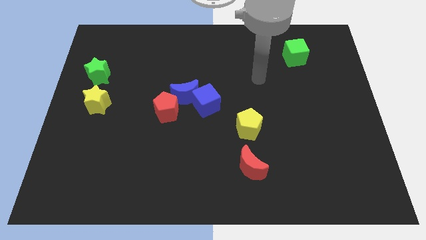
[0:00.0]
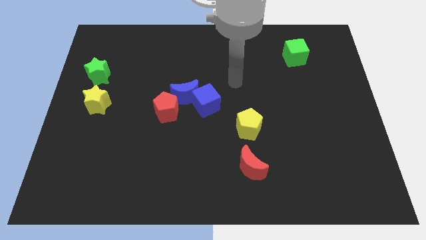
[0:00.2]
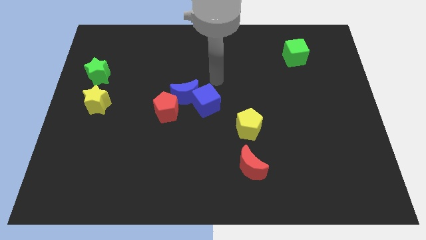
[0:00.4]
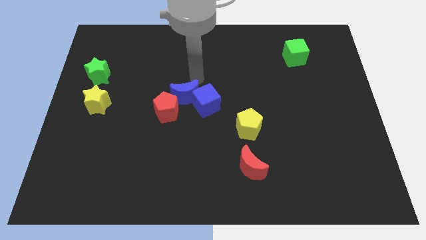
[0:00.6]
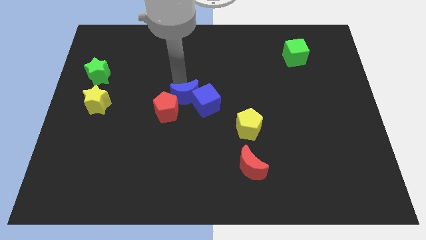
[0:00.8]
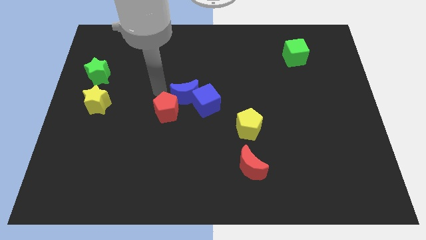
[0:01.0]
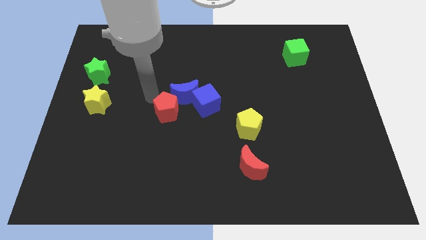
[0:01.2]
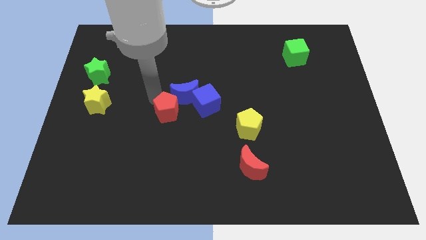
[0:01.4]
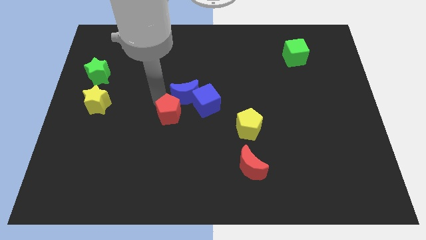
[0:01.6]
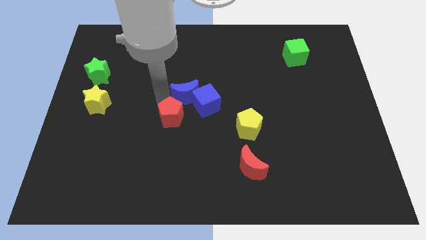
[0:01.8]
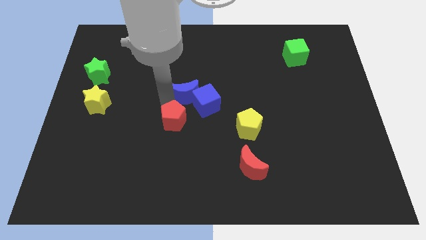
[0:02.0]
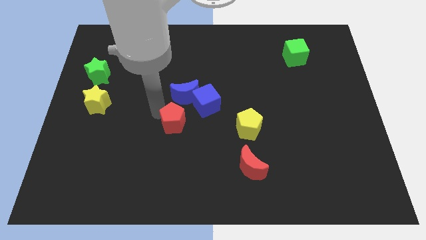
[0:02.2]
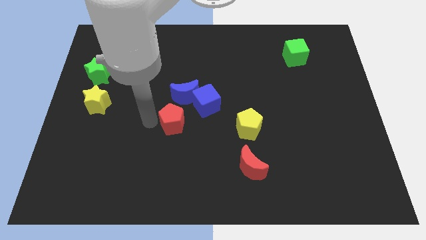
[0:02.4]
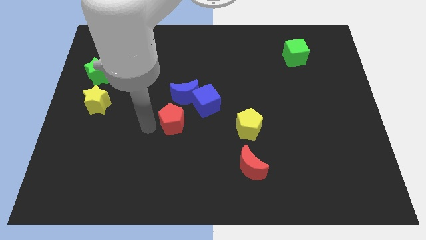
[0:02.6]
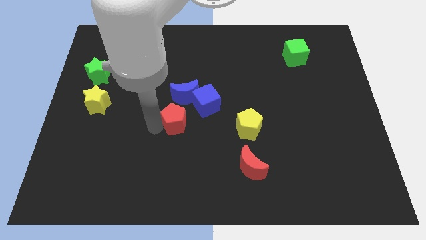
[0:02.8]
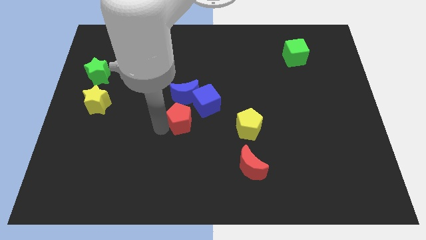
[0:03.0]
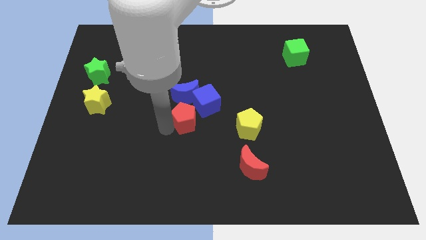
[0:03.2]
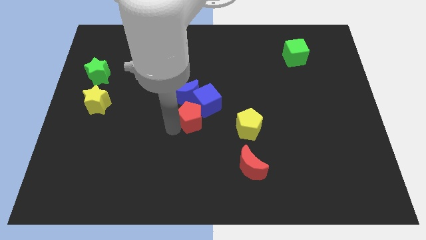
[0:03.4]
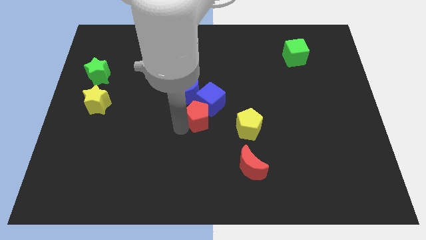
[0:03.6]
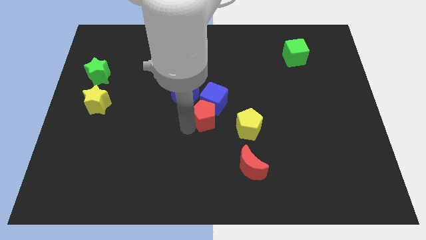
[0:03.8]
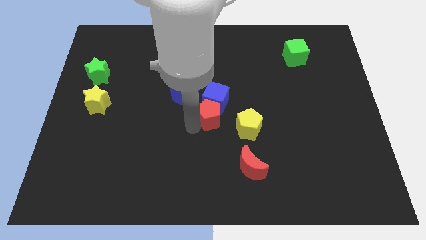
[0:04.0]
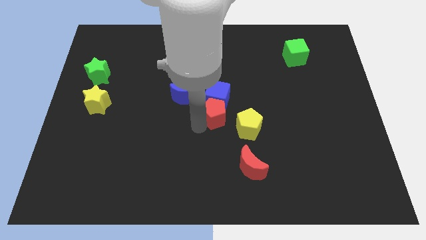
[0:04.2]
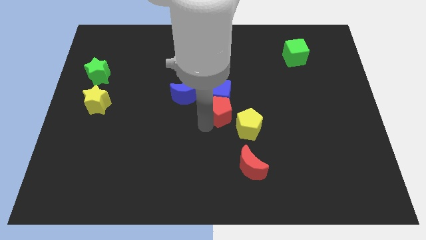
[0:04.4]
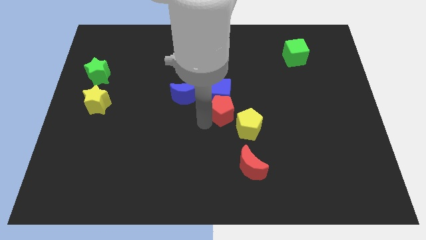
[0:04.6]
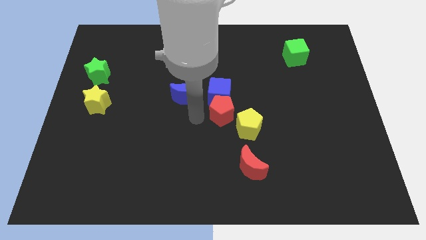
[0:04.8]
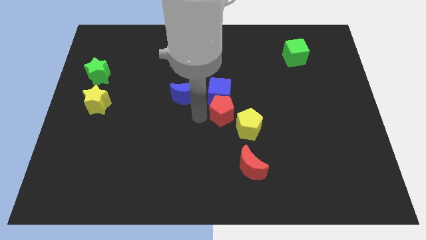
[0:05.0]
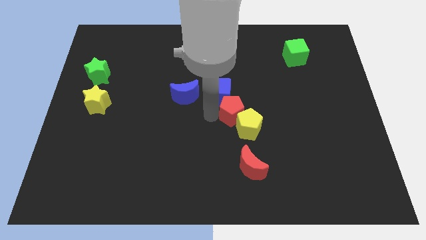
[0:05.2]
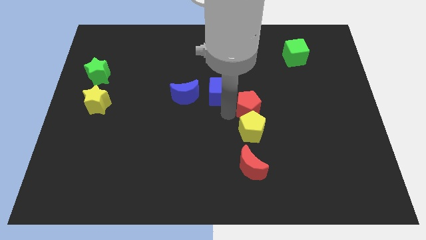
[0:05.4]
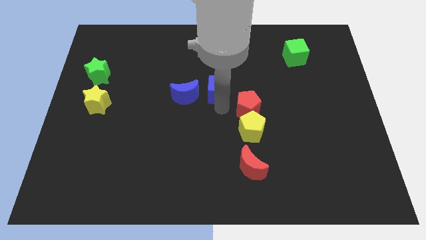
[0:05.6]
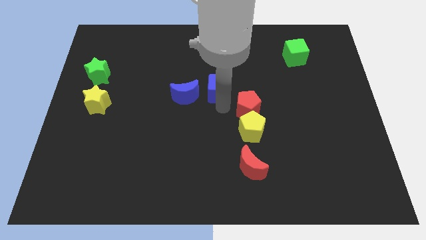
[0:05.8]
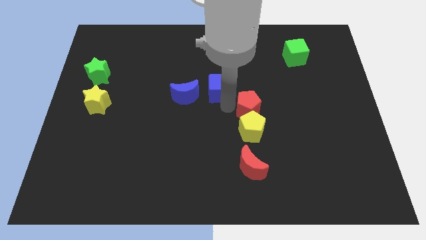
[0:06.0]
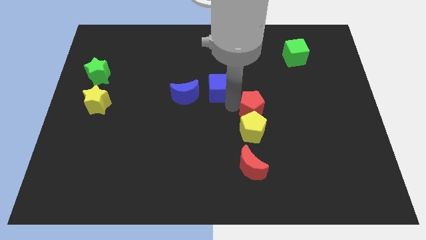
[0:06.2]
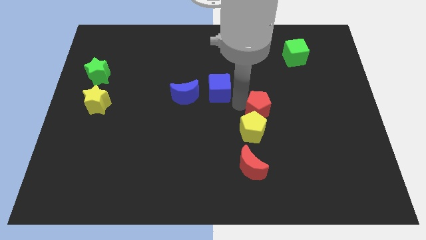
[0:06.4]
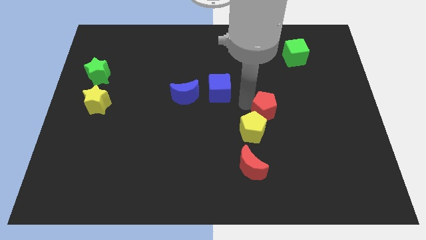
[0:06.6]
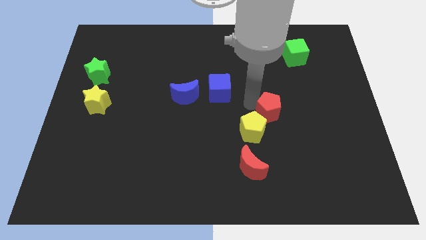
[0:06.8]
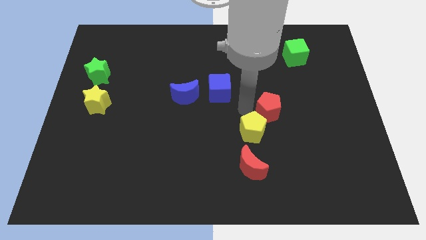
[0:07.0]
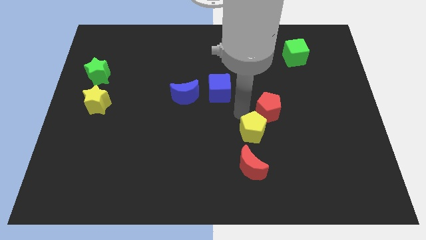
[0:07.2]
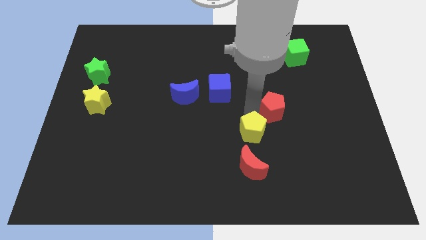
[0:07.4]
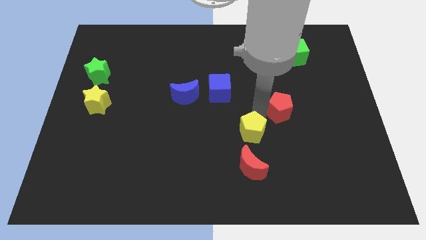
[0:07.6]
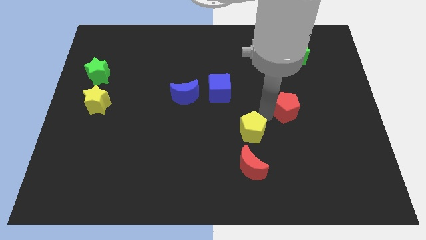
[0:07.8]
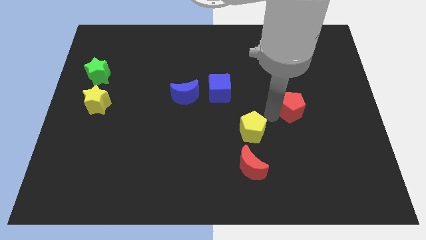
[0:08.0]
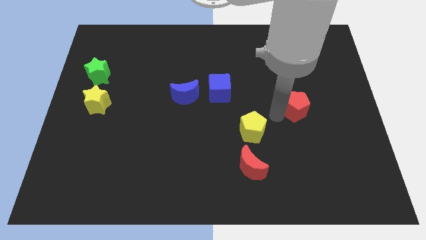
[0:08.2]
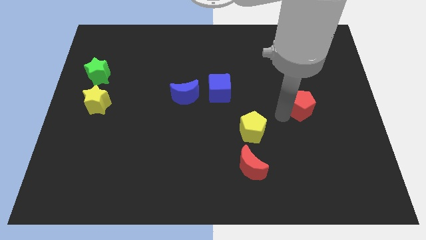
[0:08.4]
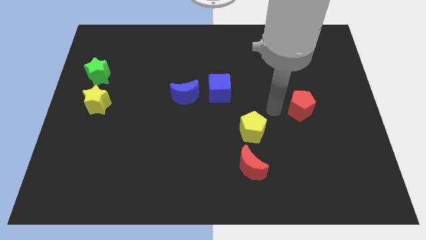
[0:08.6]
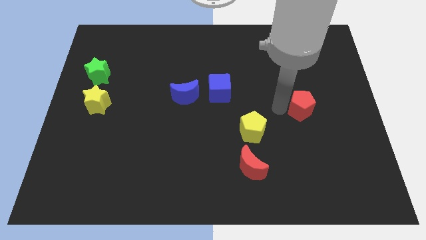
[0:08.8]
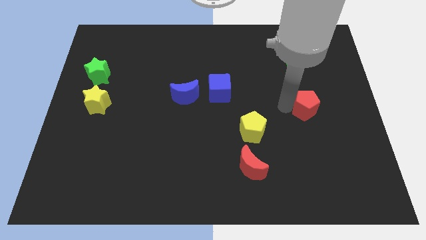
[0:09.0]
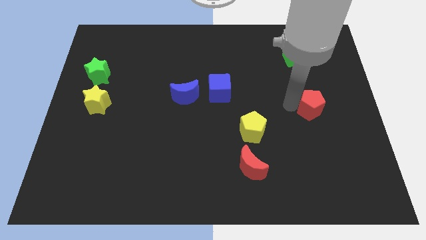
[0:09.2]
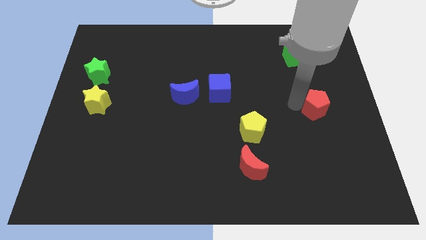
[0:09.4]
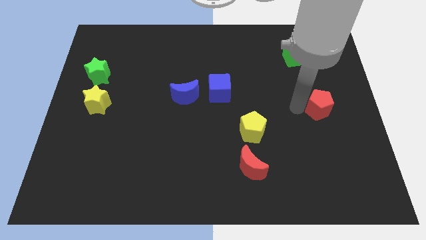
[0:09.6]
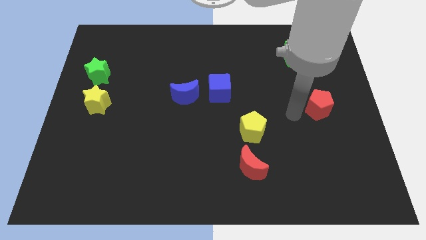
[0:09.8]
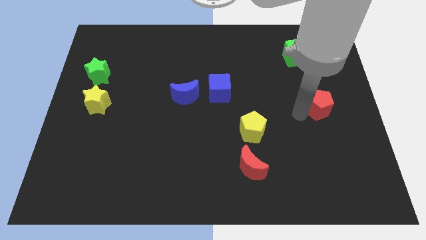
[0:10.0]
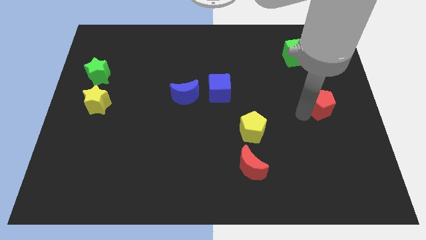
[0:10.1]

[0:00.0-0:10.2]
slide the red pentagon to the right side

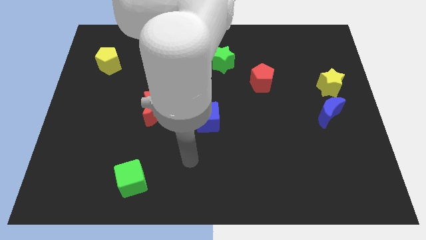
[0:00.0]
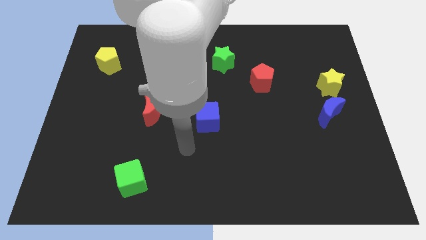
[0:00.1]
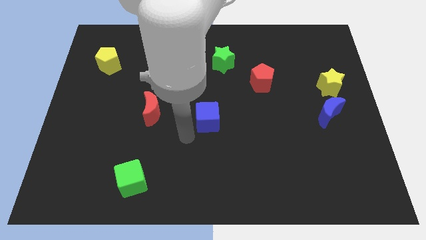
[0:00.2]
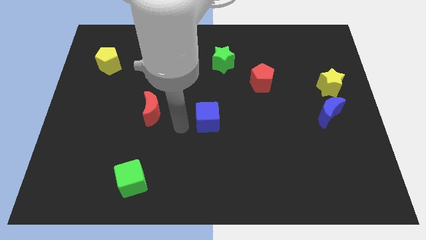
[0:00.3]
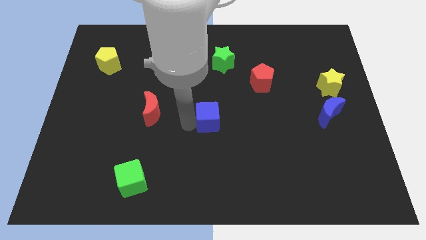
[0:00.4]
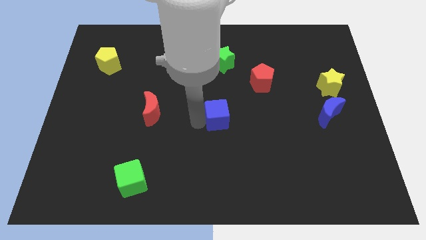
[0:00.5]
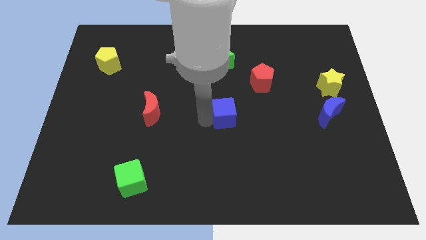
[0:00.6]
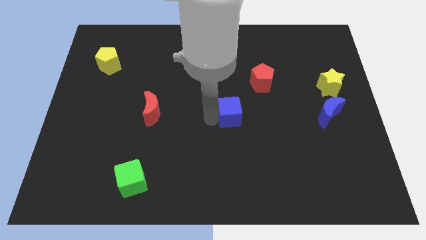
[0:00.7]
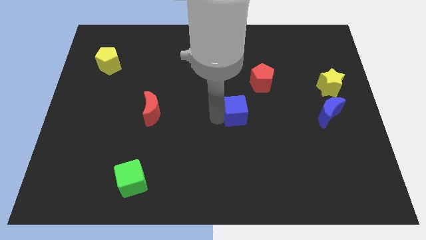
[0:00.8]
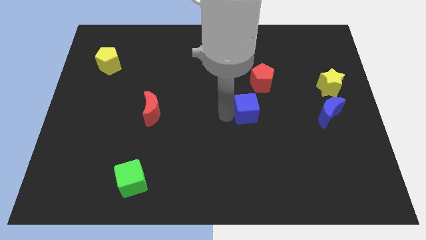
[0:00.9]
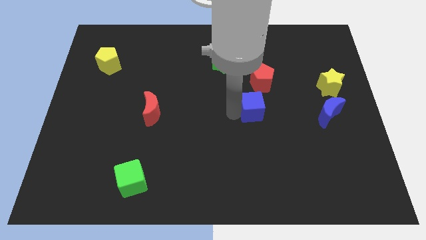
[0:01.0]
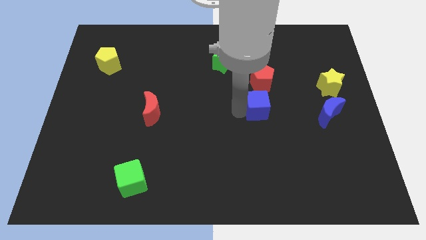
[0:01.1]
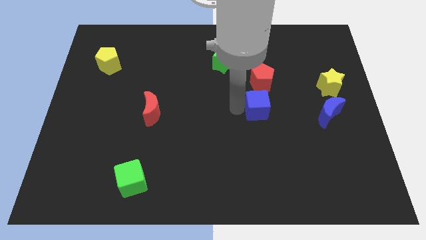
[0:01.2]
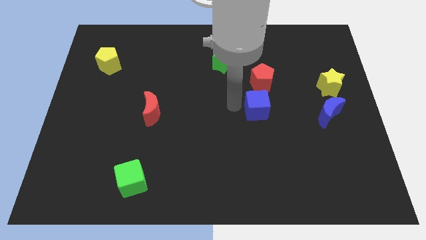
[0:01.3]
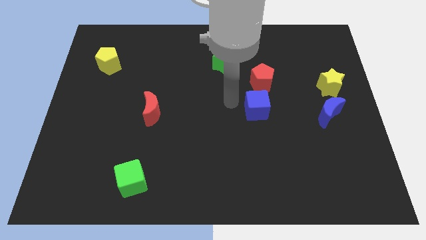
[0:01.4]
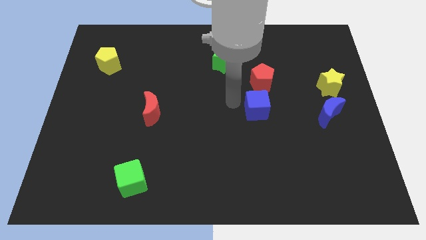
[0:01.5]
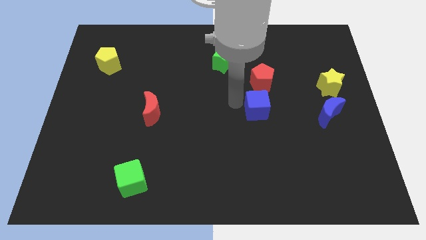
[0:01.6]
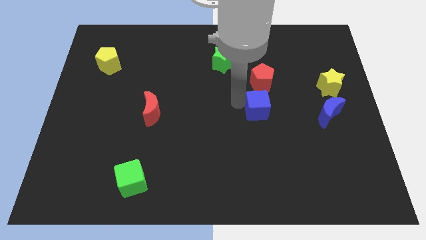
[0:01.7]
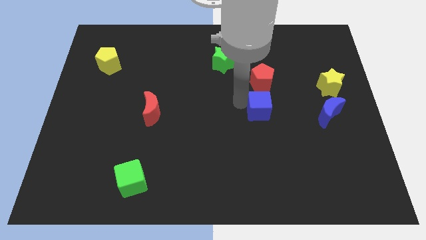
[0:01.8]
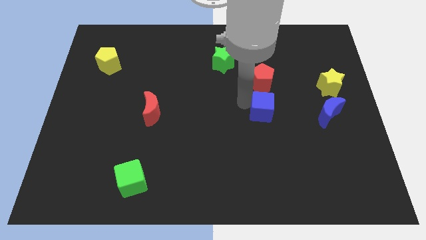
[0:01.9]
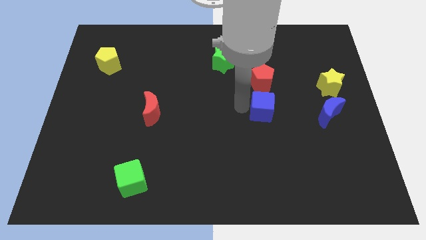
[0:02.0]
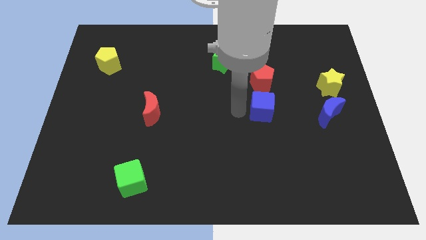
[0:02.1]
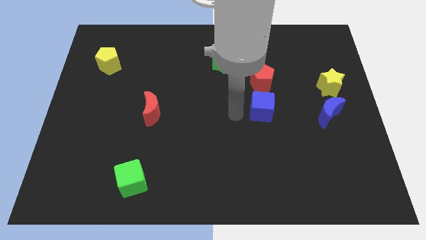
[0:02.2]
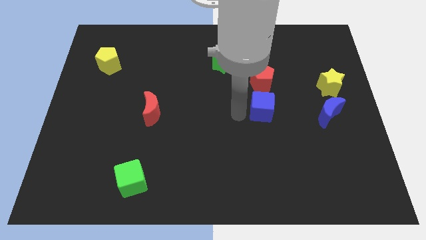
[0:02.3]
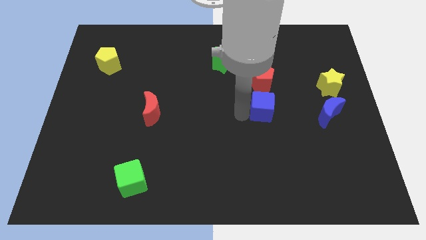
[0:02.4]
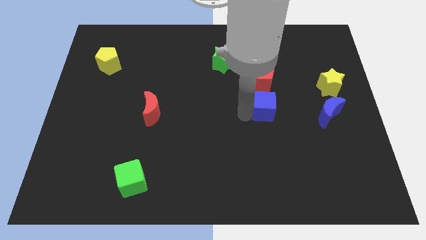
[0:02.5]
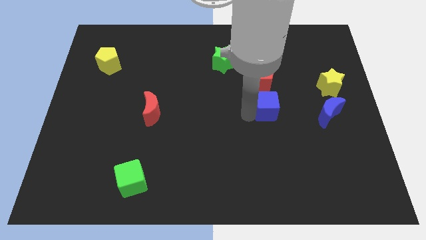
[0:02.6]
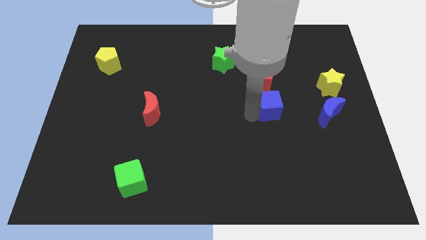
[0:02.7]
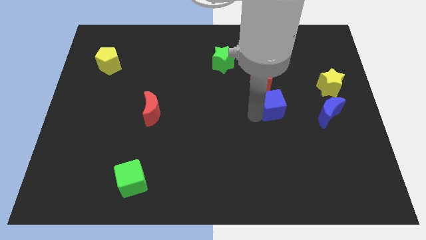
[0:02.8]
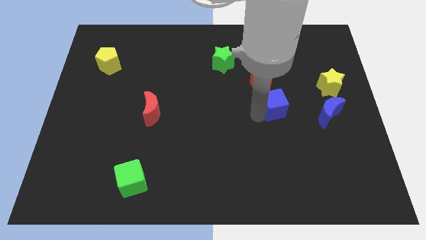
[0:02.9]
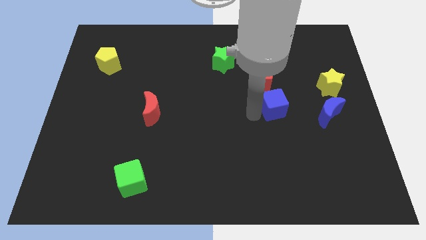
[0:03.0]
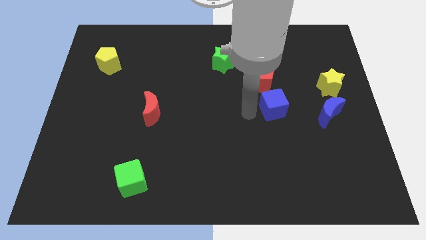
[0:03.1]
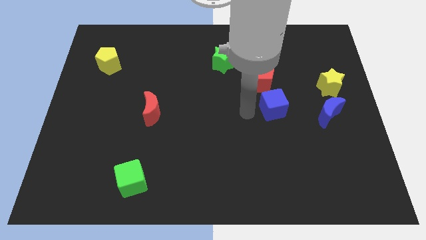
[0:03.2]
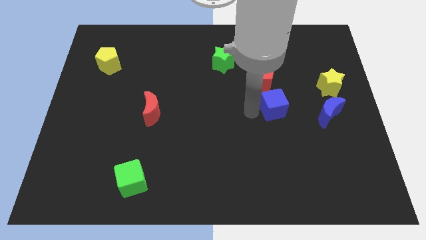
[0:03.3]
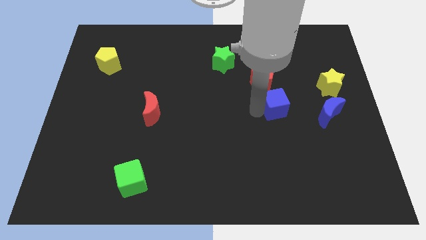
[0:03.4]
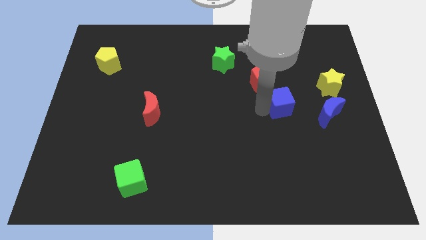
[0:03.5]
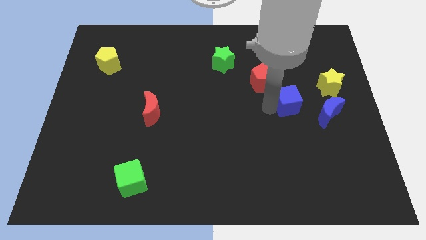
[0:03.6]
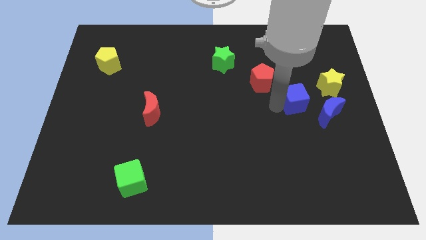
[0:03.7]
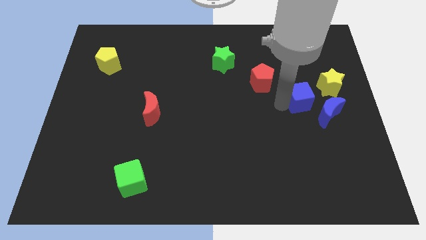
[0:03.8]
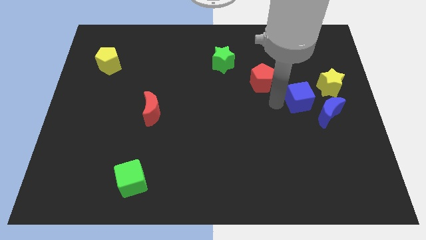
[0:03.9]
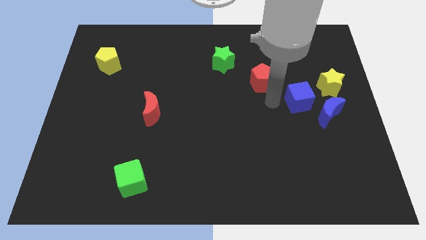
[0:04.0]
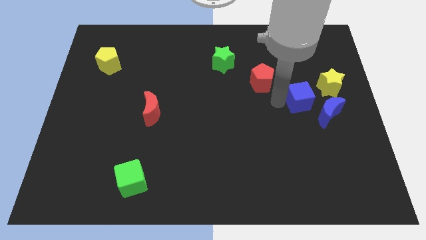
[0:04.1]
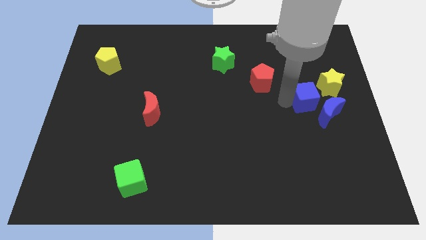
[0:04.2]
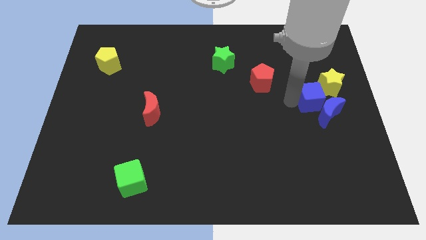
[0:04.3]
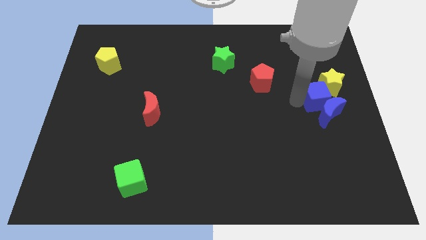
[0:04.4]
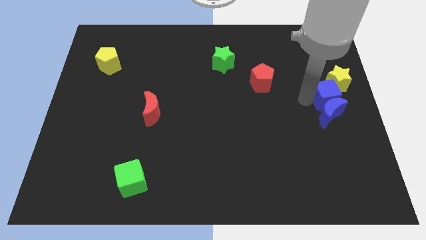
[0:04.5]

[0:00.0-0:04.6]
put the blue cube to the center right
